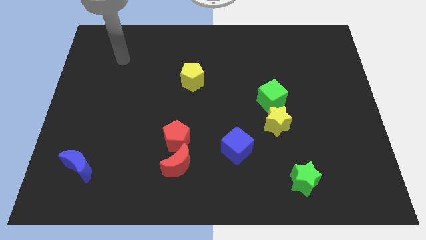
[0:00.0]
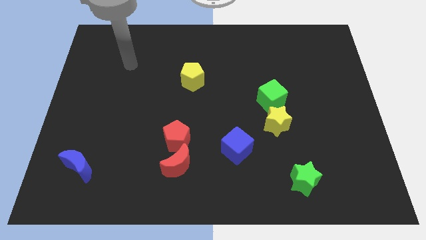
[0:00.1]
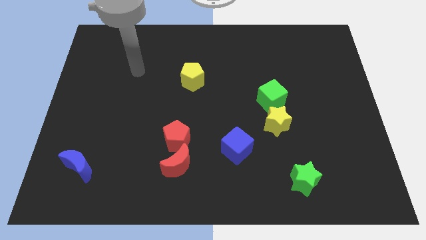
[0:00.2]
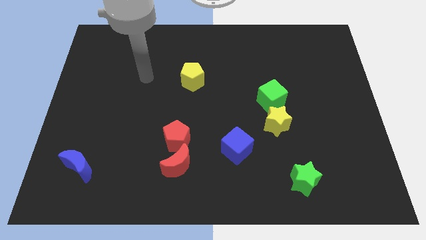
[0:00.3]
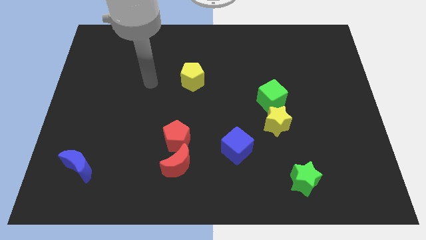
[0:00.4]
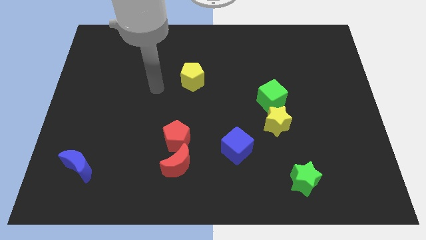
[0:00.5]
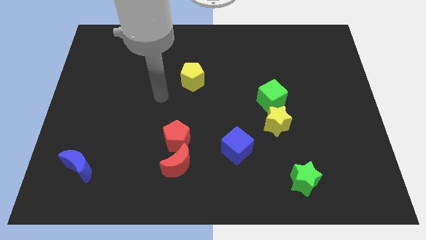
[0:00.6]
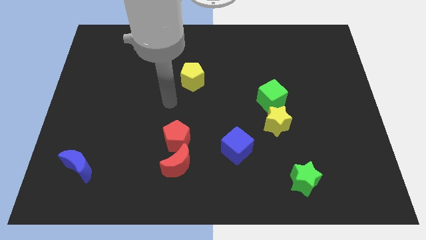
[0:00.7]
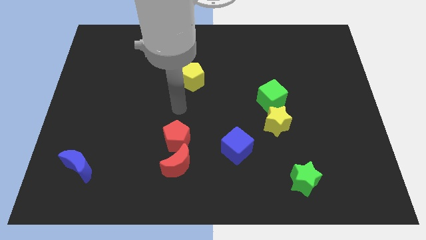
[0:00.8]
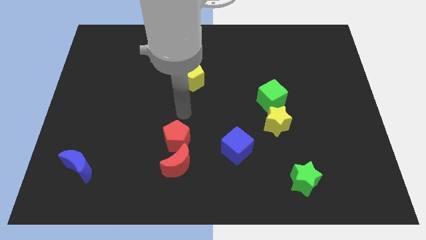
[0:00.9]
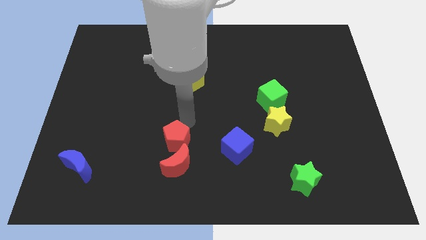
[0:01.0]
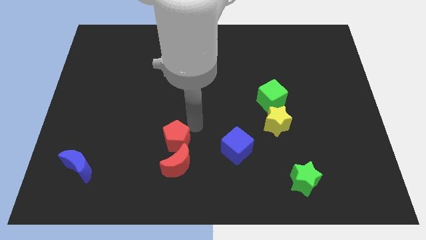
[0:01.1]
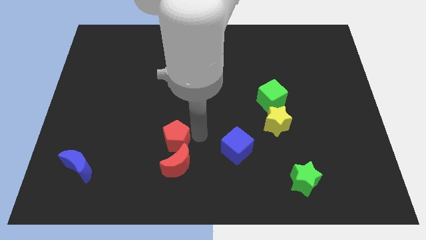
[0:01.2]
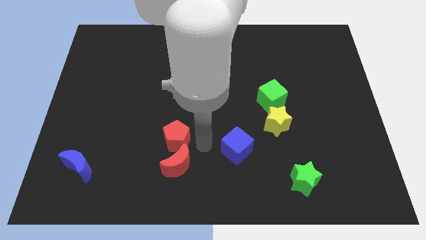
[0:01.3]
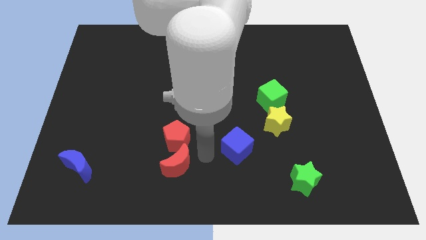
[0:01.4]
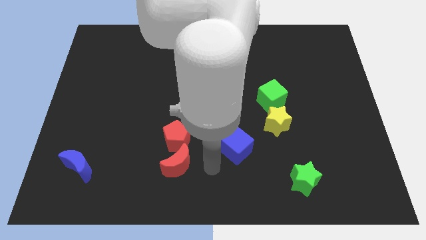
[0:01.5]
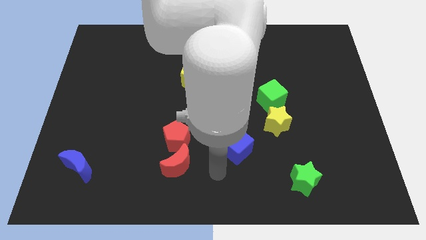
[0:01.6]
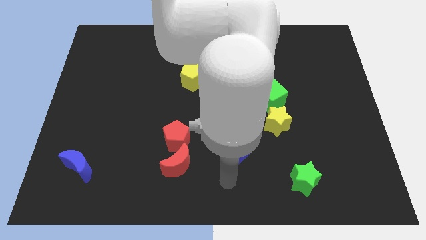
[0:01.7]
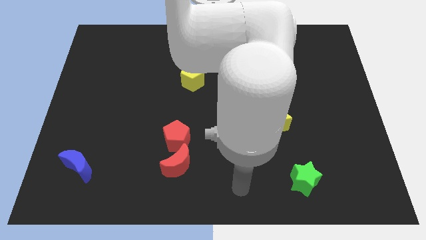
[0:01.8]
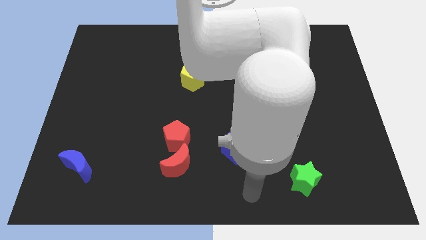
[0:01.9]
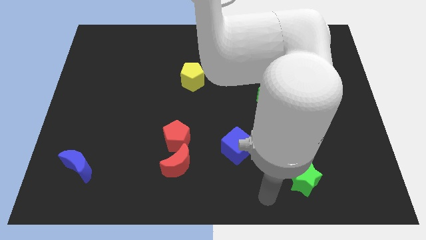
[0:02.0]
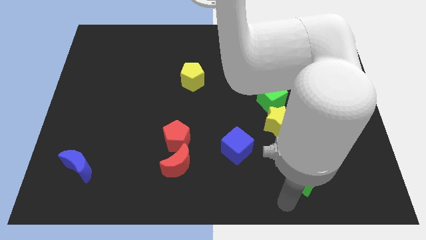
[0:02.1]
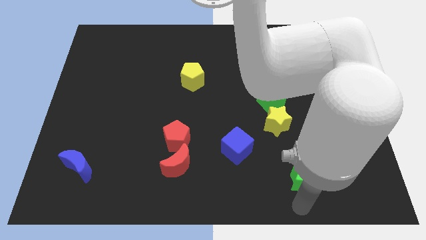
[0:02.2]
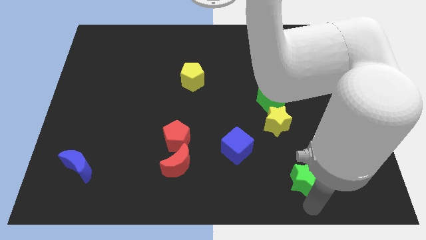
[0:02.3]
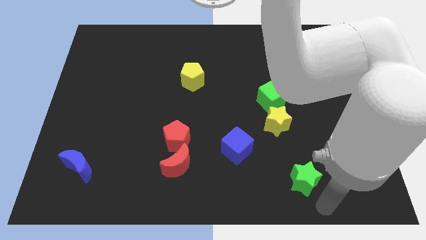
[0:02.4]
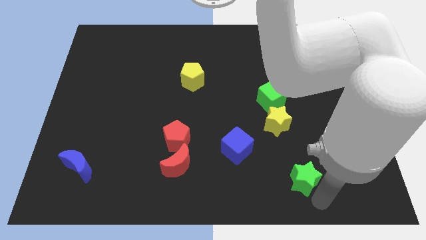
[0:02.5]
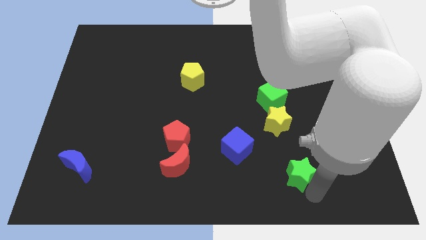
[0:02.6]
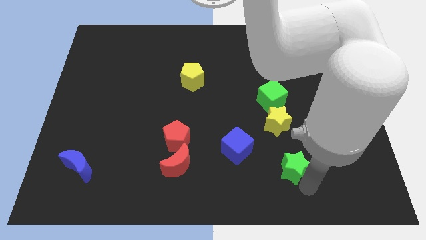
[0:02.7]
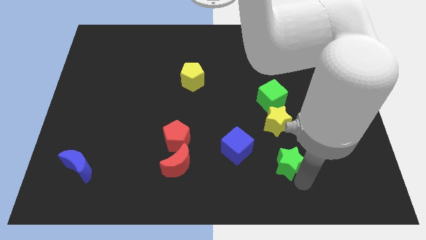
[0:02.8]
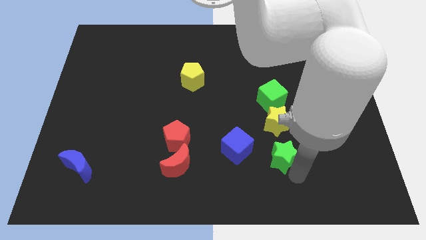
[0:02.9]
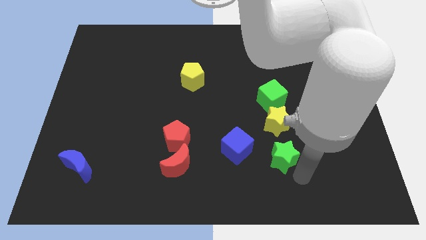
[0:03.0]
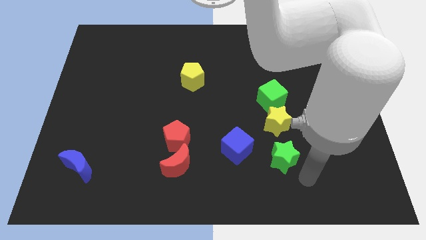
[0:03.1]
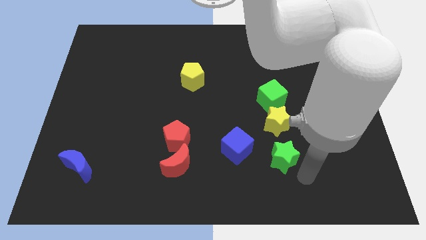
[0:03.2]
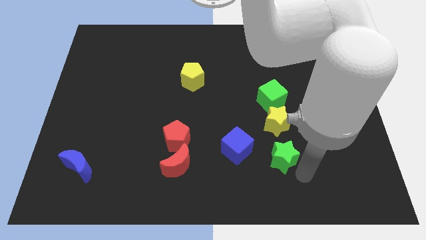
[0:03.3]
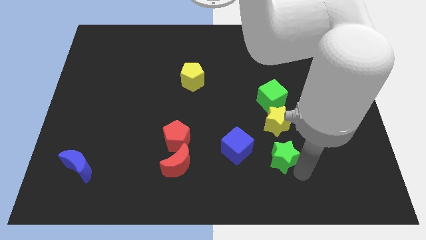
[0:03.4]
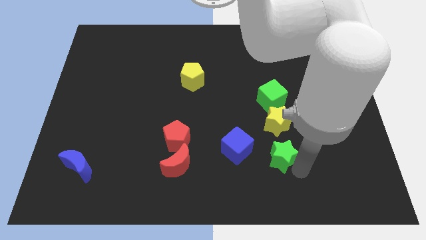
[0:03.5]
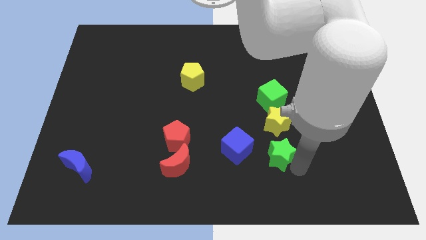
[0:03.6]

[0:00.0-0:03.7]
slightly slide the green star upwards and to the left diagonally

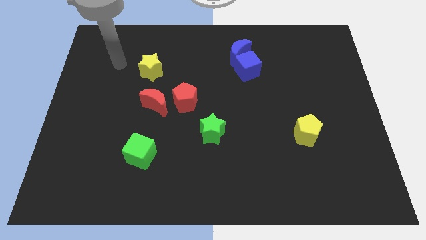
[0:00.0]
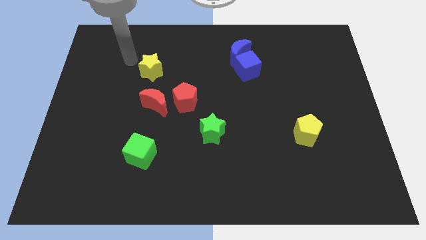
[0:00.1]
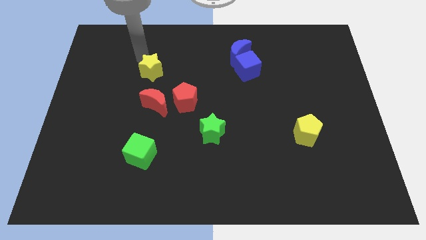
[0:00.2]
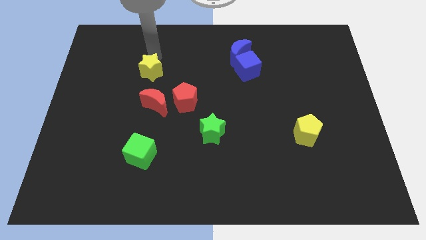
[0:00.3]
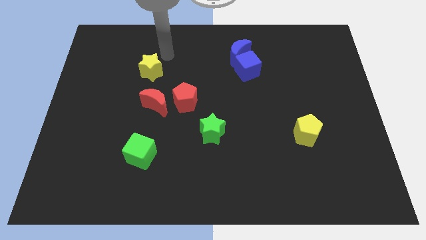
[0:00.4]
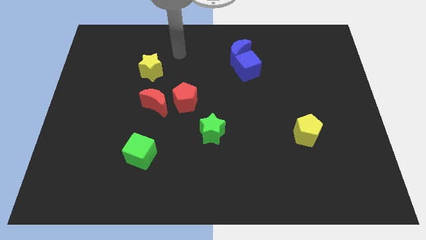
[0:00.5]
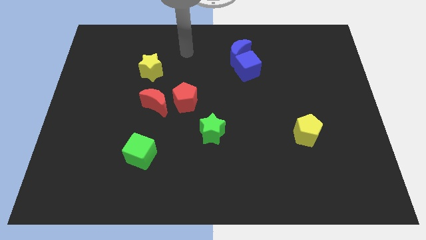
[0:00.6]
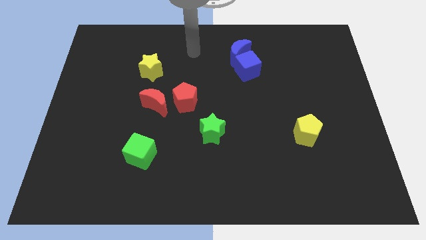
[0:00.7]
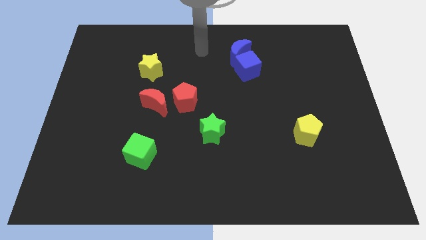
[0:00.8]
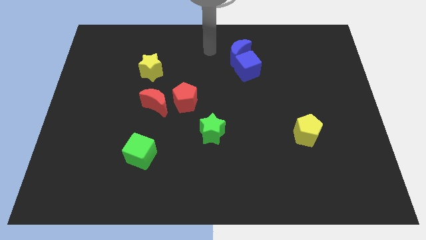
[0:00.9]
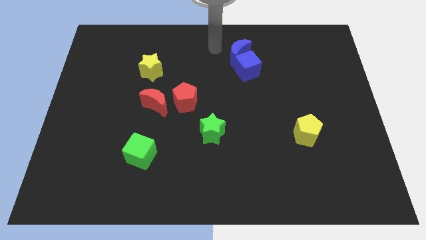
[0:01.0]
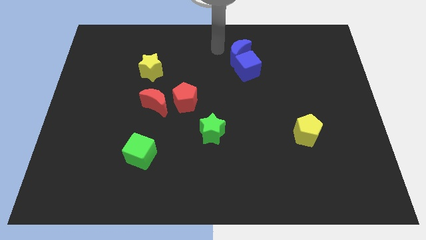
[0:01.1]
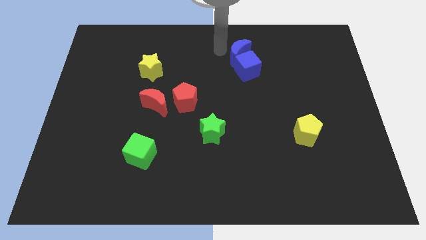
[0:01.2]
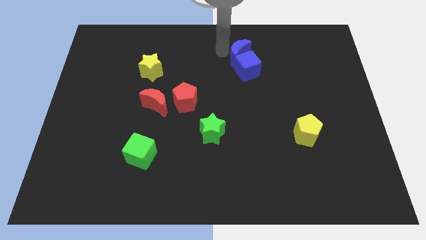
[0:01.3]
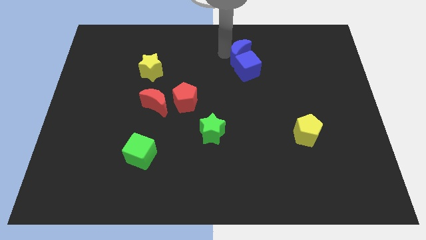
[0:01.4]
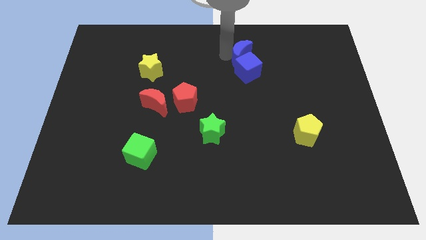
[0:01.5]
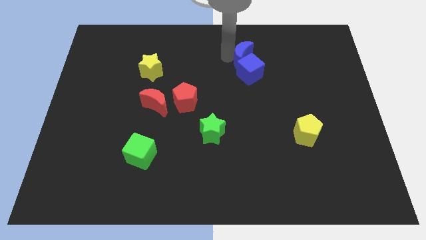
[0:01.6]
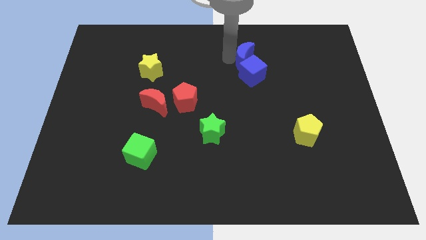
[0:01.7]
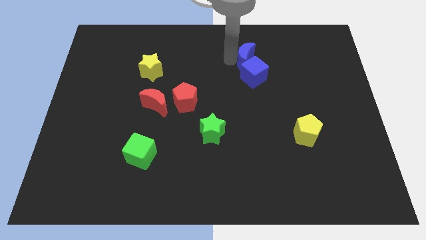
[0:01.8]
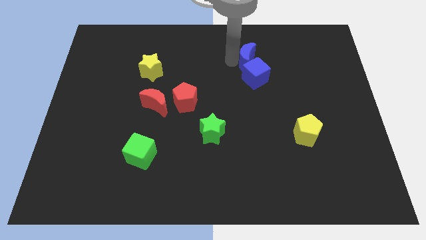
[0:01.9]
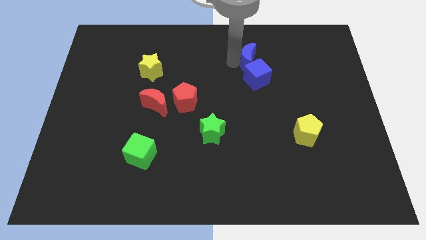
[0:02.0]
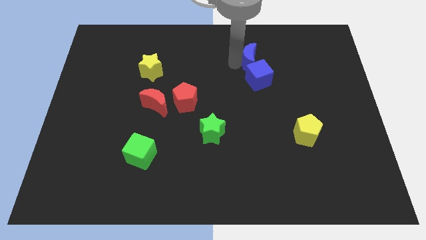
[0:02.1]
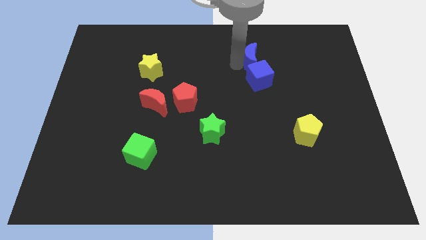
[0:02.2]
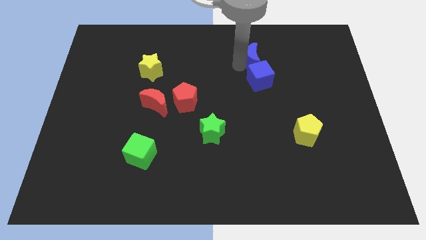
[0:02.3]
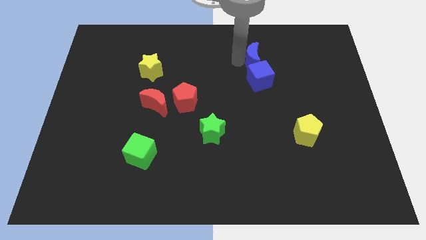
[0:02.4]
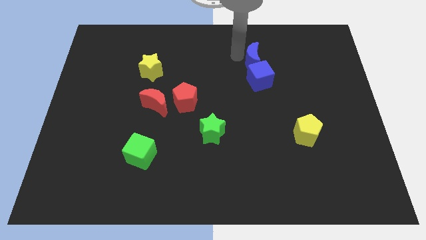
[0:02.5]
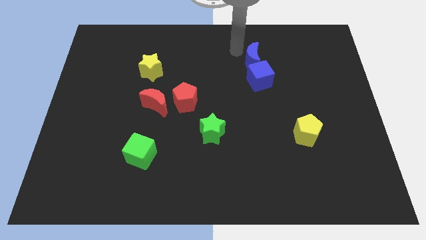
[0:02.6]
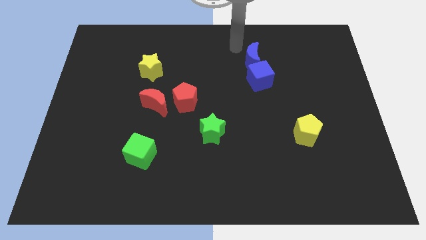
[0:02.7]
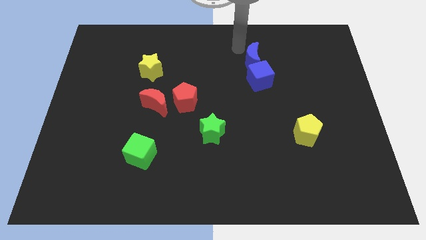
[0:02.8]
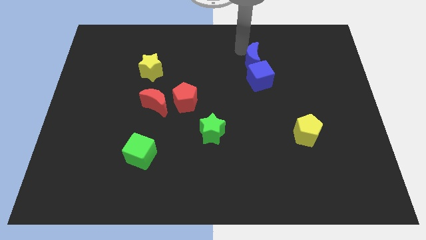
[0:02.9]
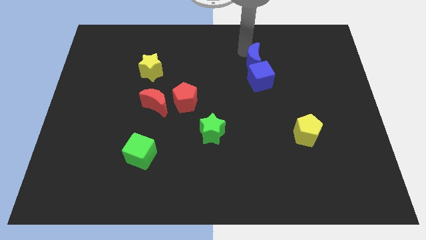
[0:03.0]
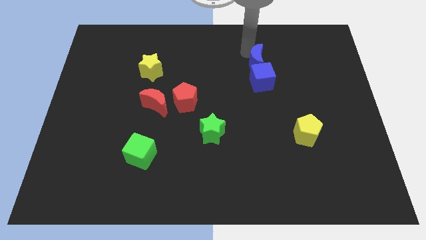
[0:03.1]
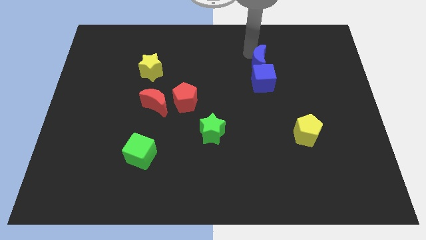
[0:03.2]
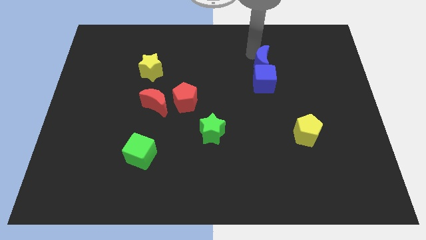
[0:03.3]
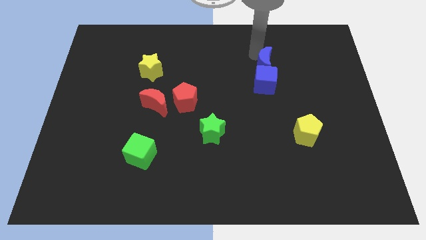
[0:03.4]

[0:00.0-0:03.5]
slightly slide the blue moon downwards and right diagonally

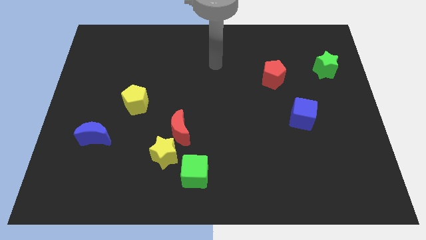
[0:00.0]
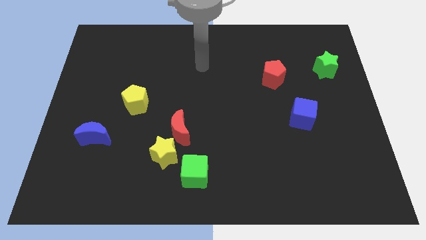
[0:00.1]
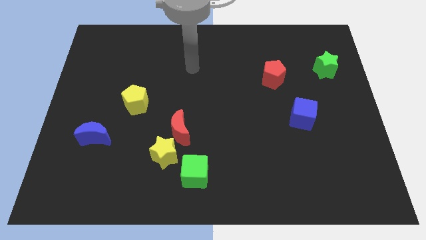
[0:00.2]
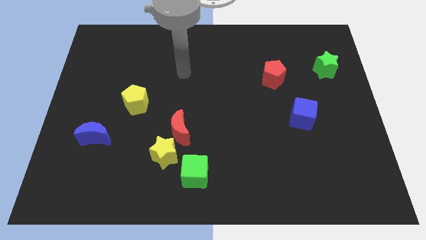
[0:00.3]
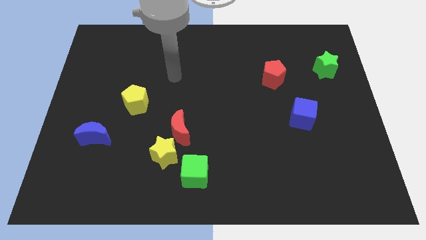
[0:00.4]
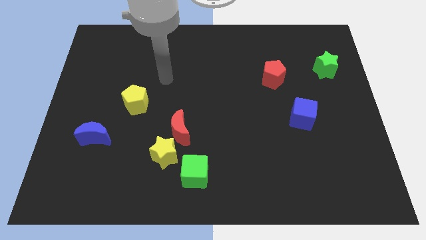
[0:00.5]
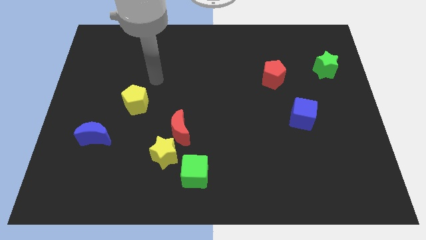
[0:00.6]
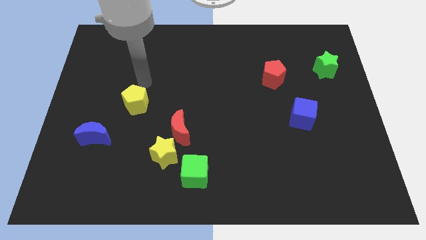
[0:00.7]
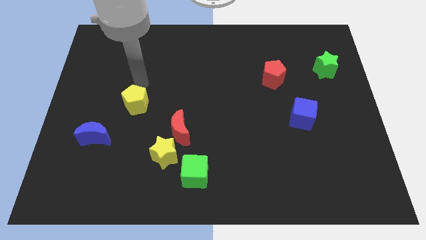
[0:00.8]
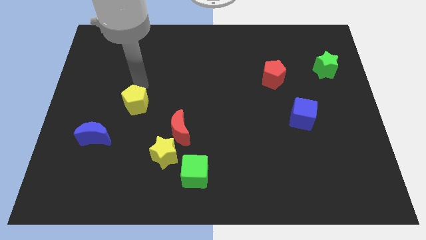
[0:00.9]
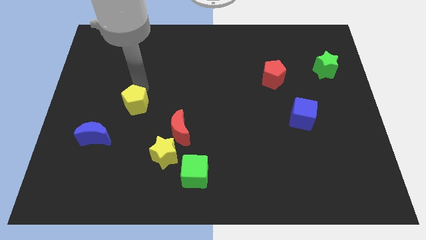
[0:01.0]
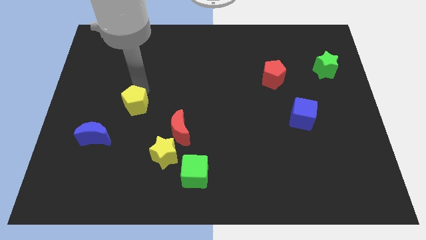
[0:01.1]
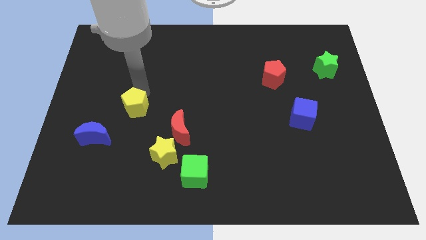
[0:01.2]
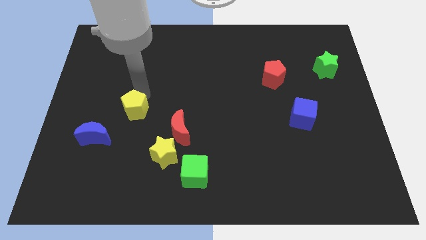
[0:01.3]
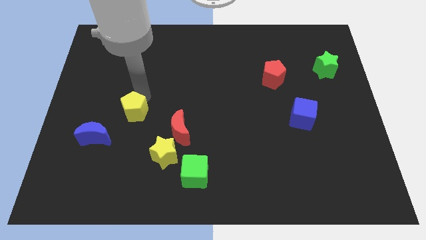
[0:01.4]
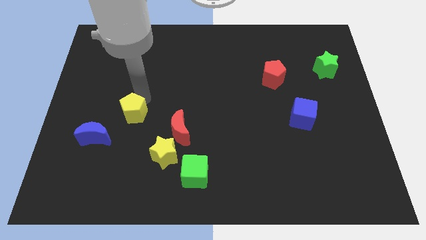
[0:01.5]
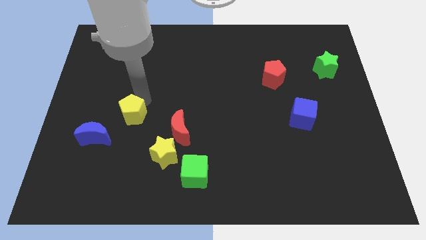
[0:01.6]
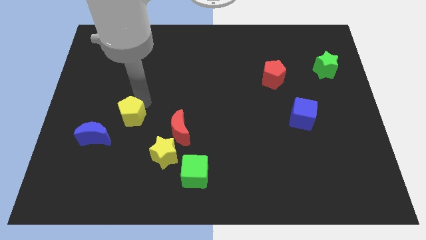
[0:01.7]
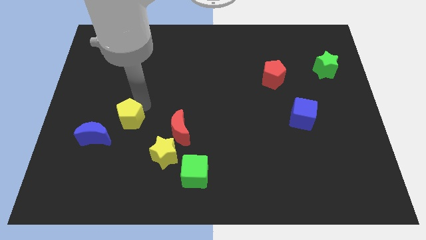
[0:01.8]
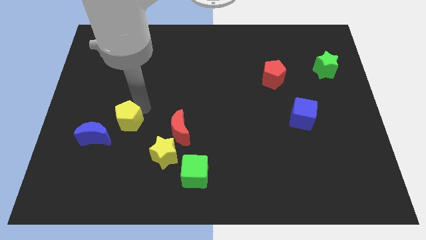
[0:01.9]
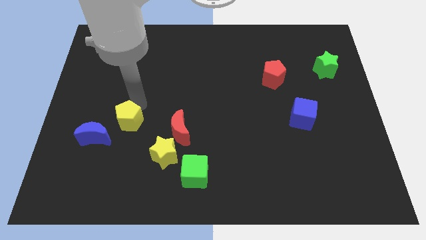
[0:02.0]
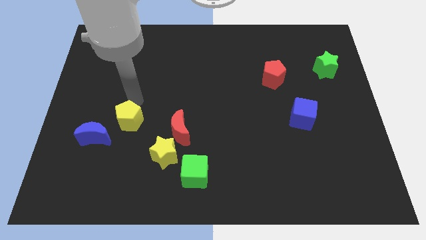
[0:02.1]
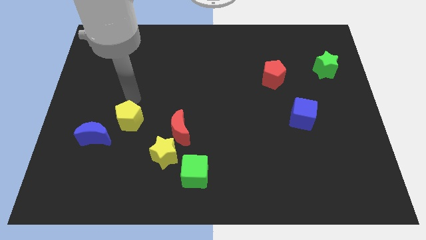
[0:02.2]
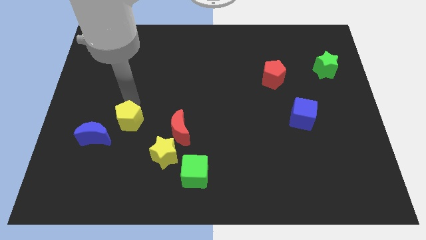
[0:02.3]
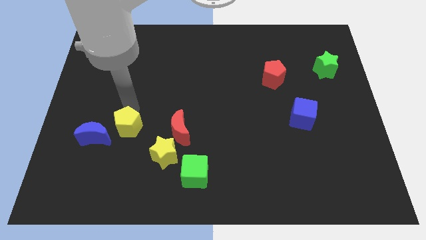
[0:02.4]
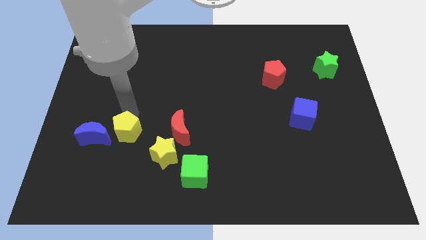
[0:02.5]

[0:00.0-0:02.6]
push the yellow pentagon down somewhat
